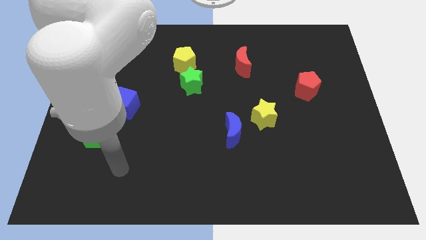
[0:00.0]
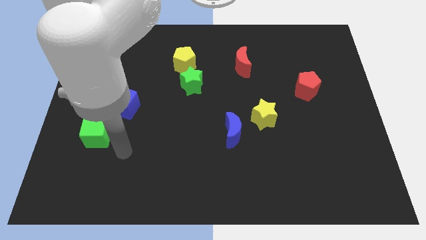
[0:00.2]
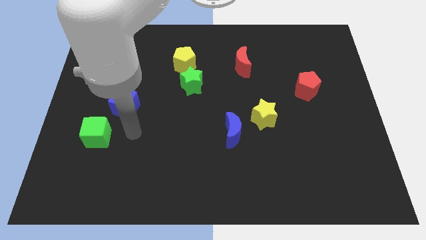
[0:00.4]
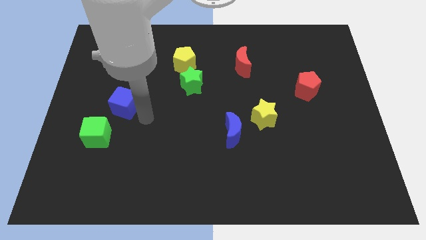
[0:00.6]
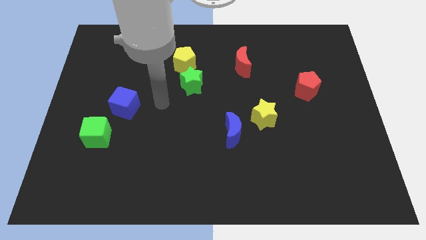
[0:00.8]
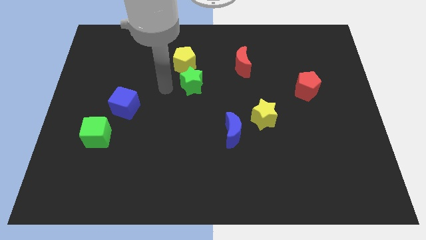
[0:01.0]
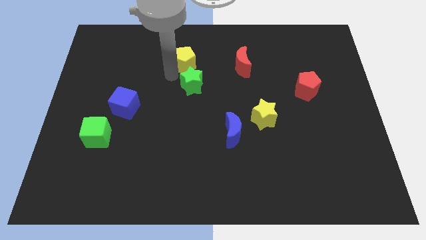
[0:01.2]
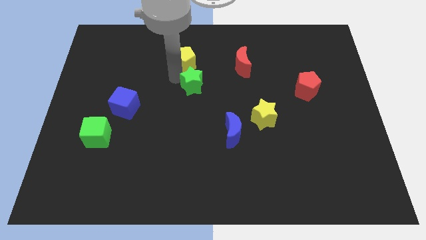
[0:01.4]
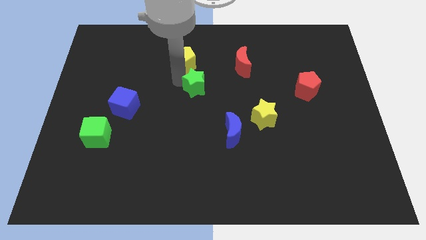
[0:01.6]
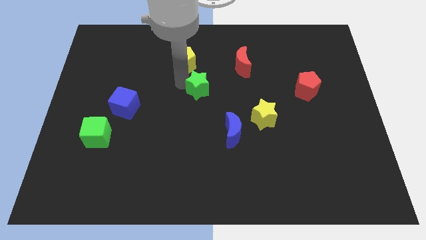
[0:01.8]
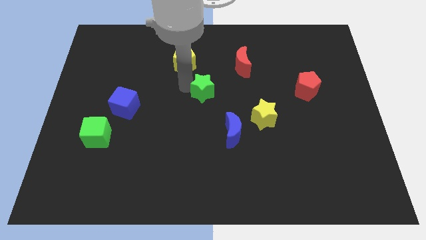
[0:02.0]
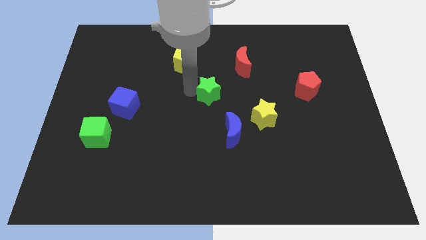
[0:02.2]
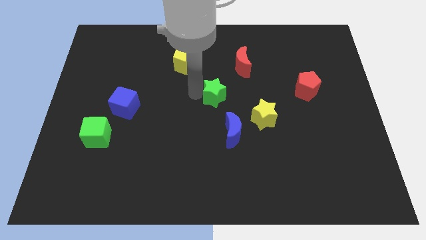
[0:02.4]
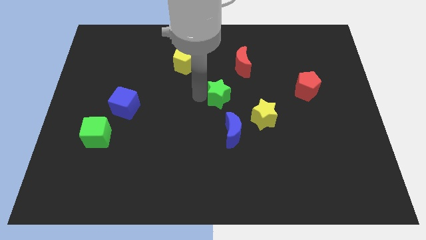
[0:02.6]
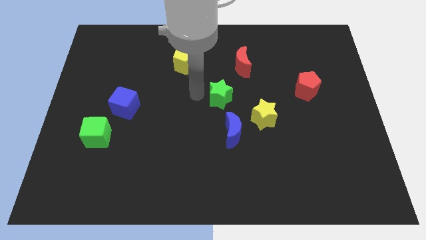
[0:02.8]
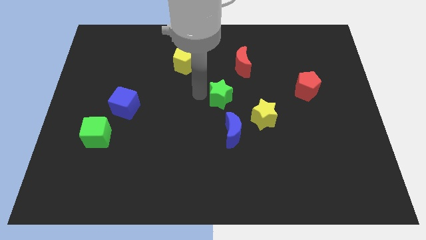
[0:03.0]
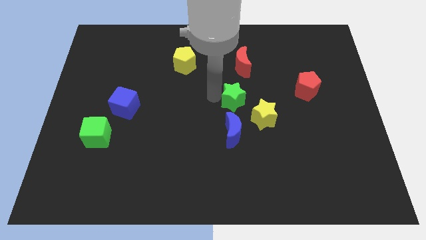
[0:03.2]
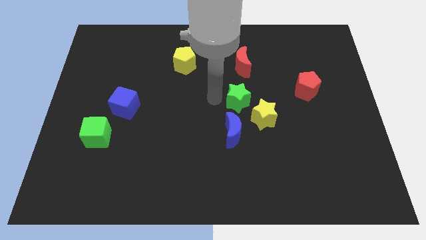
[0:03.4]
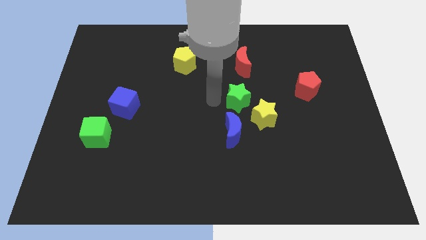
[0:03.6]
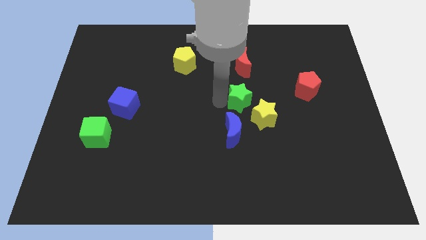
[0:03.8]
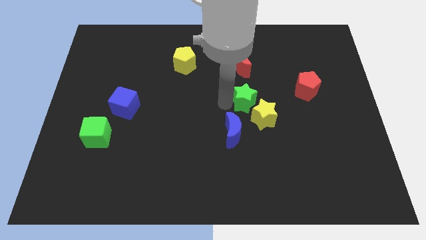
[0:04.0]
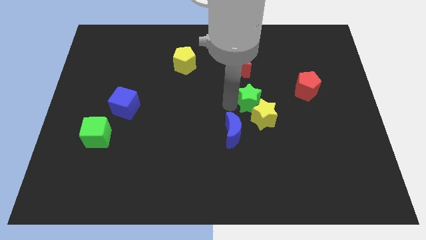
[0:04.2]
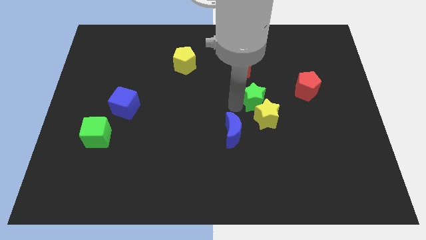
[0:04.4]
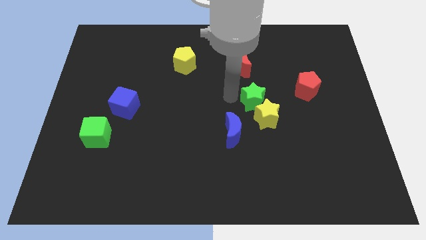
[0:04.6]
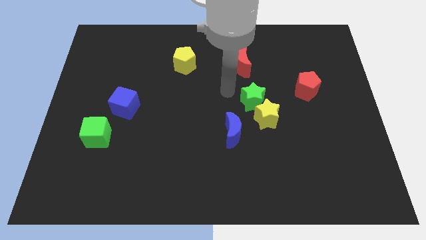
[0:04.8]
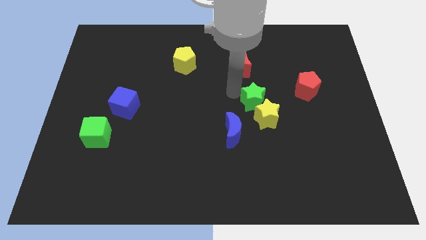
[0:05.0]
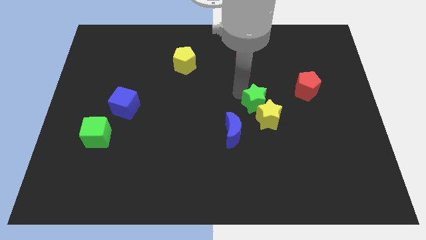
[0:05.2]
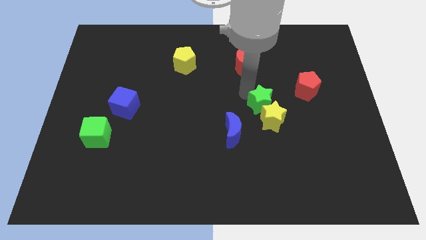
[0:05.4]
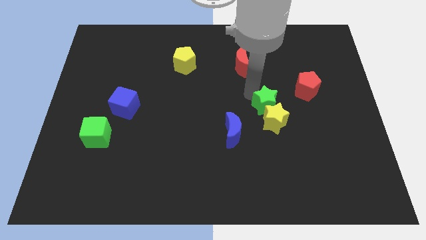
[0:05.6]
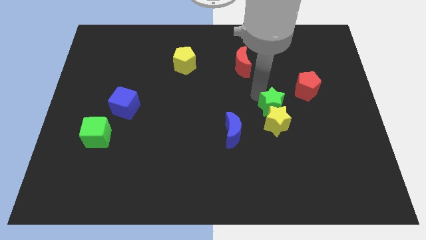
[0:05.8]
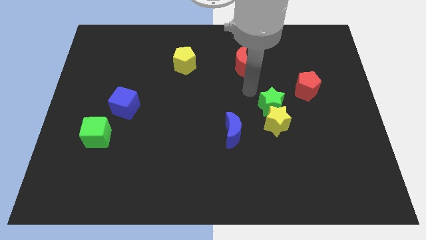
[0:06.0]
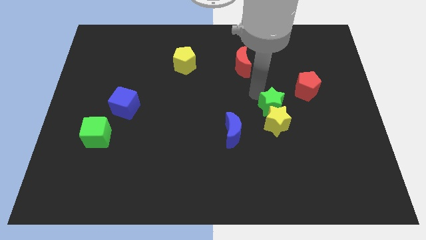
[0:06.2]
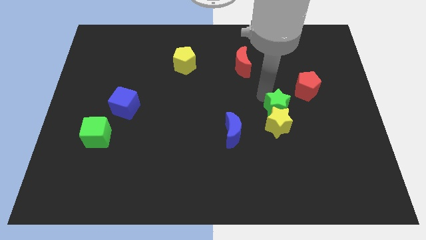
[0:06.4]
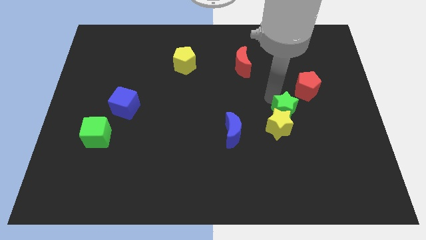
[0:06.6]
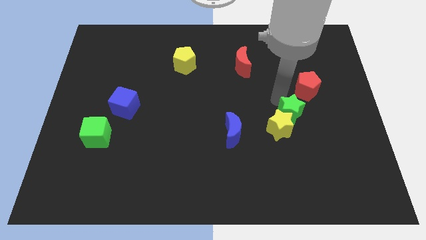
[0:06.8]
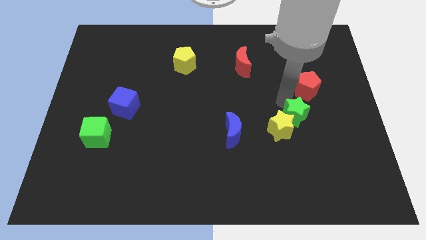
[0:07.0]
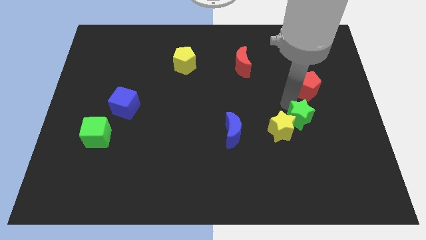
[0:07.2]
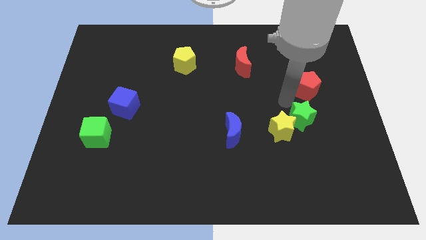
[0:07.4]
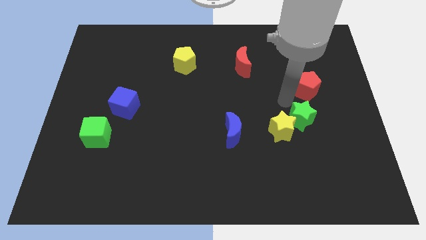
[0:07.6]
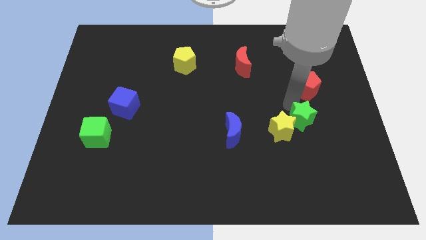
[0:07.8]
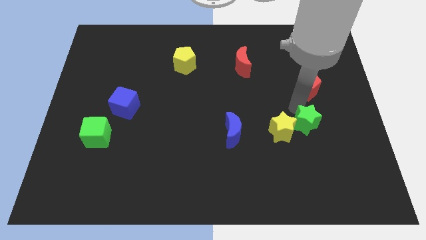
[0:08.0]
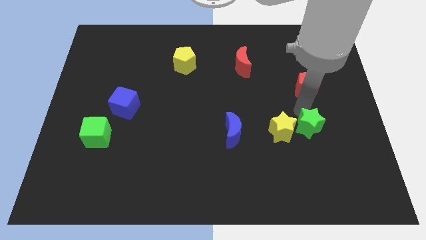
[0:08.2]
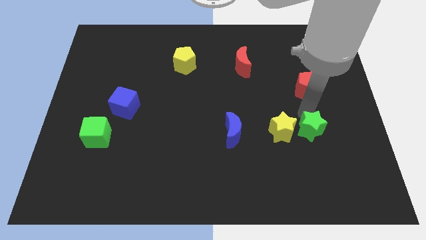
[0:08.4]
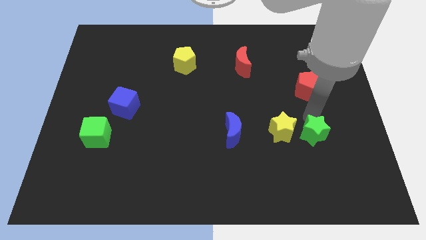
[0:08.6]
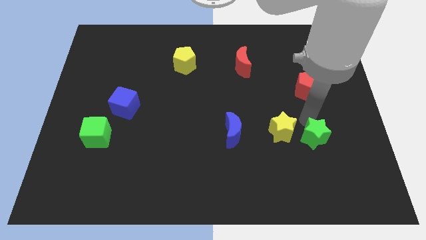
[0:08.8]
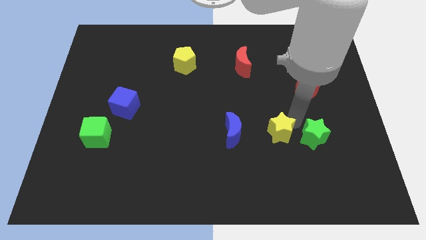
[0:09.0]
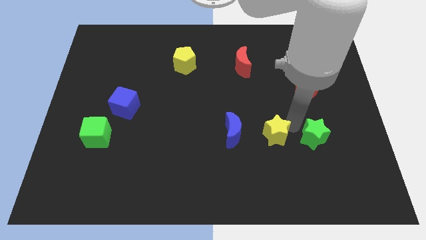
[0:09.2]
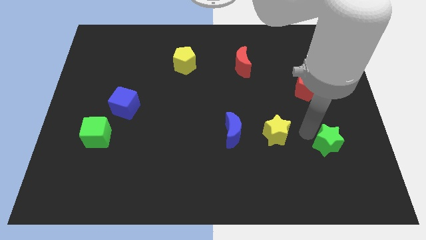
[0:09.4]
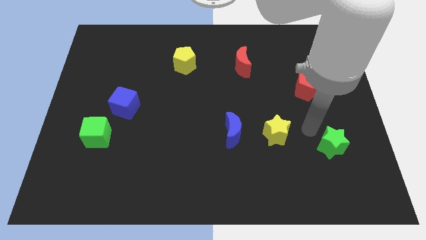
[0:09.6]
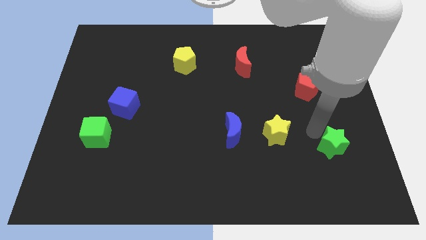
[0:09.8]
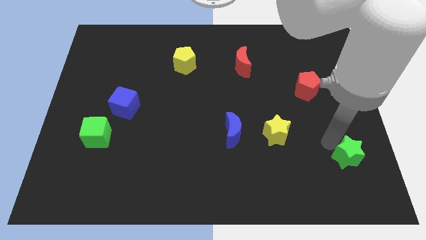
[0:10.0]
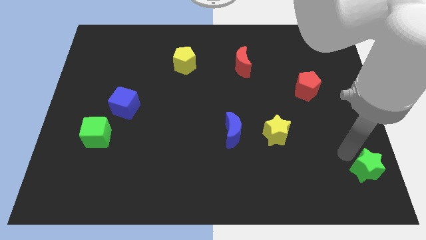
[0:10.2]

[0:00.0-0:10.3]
put the green star to the bottom right corner

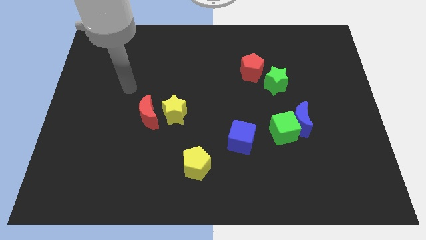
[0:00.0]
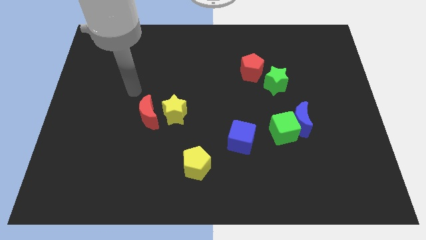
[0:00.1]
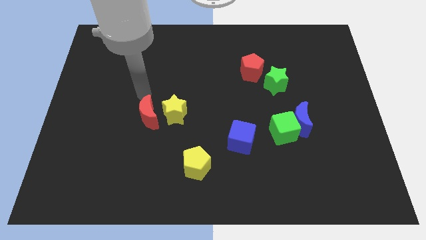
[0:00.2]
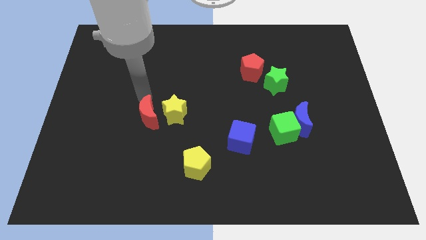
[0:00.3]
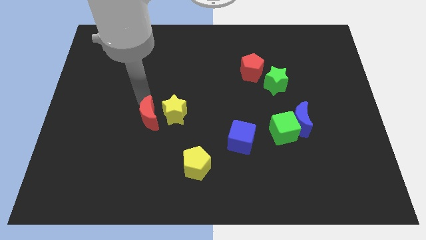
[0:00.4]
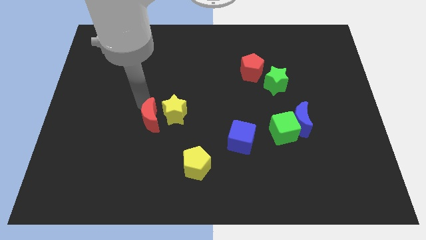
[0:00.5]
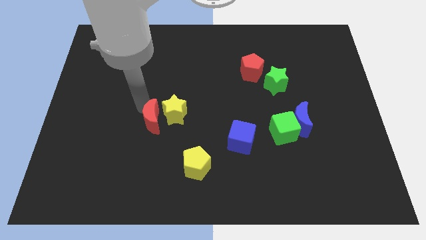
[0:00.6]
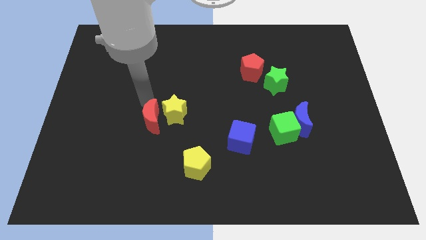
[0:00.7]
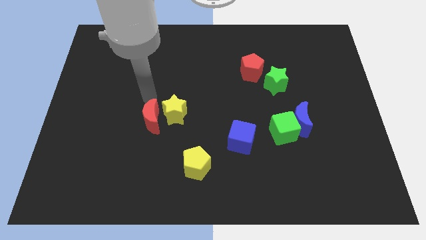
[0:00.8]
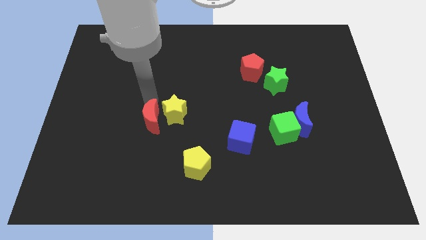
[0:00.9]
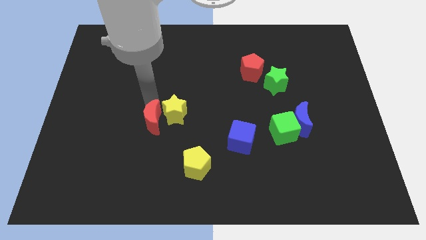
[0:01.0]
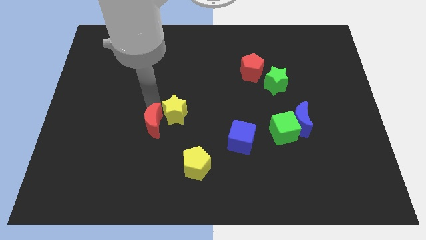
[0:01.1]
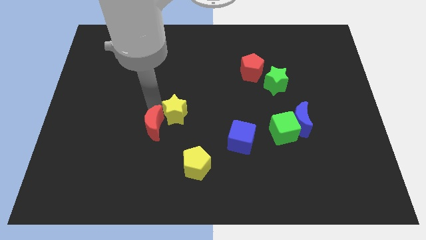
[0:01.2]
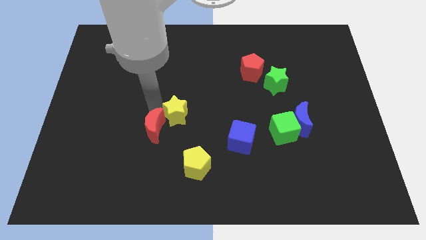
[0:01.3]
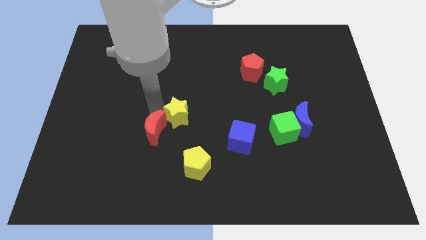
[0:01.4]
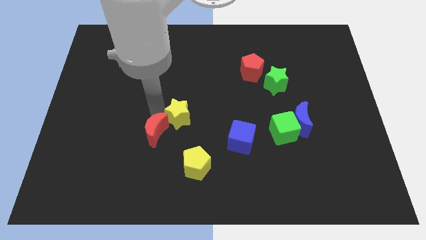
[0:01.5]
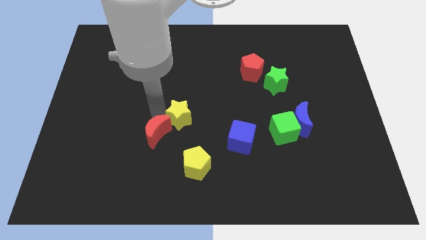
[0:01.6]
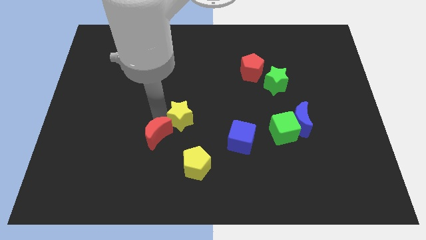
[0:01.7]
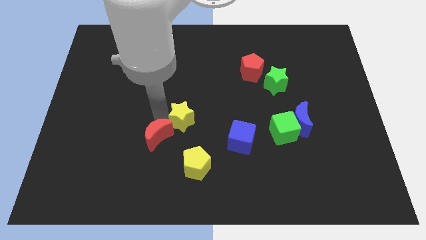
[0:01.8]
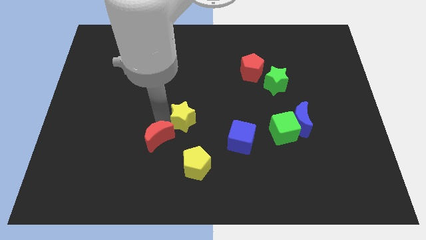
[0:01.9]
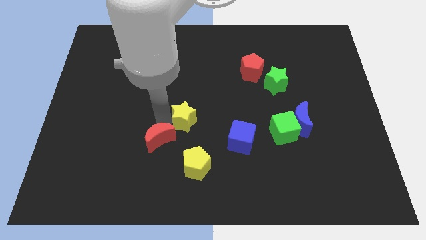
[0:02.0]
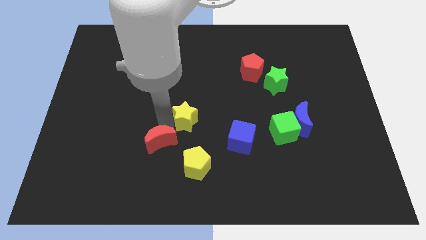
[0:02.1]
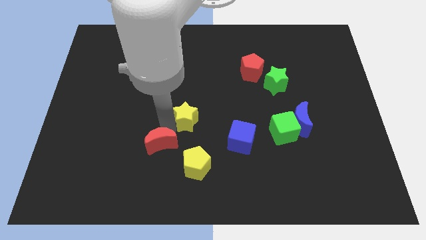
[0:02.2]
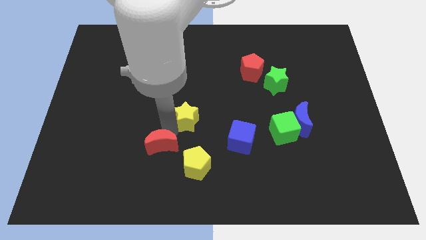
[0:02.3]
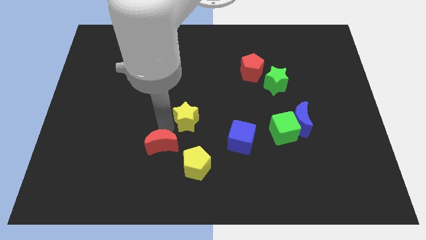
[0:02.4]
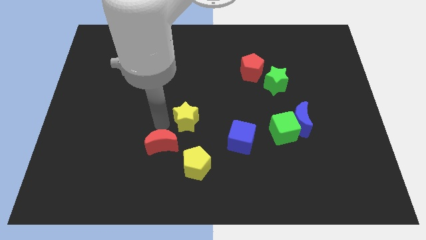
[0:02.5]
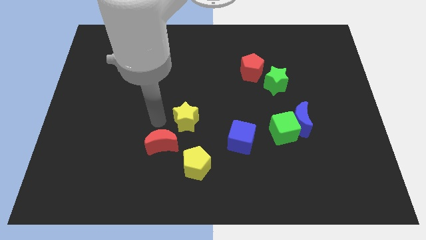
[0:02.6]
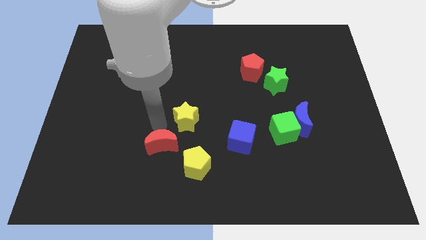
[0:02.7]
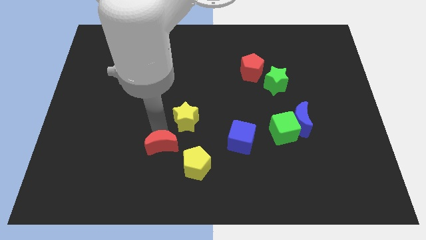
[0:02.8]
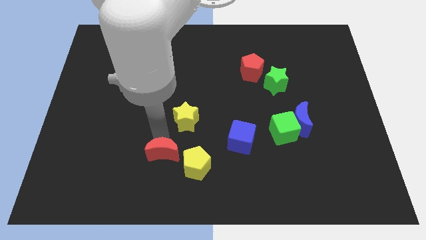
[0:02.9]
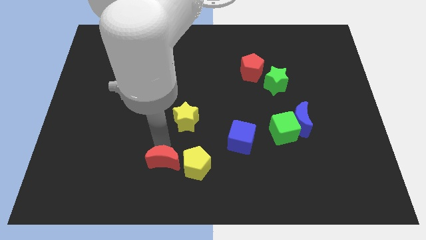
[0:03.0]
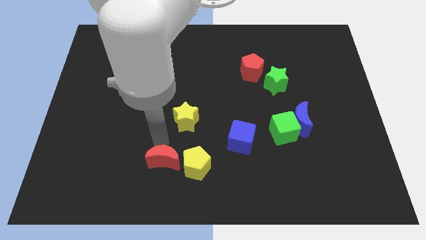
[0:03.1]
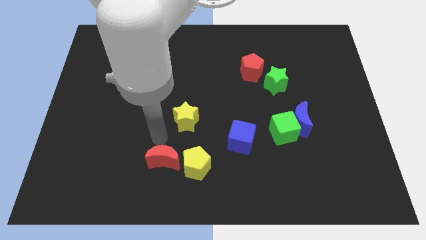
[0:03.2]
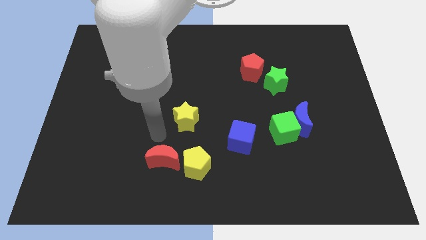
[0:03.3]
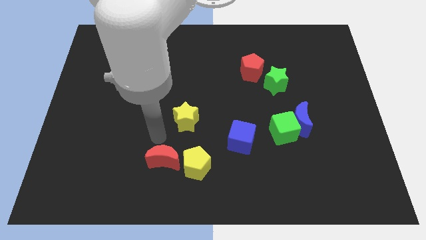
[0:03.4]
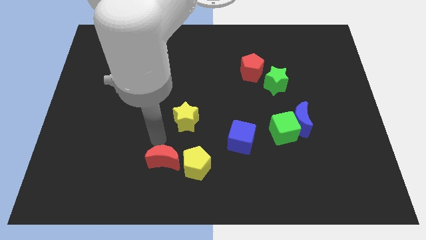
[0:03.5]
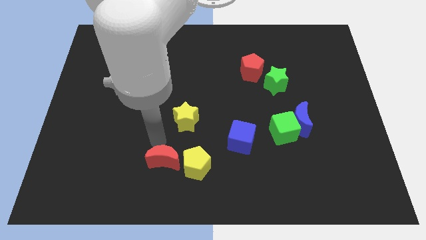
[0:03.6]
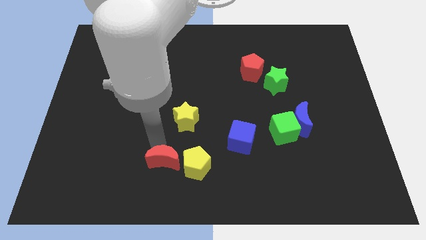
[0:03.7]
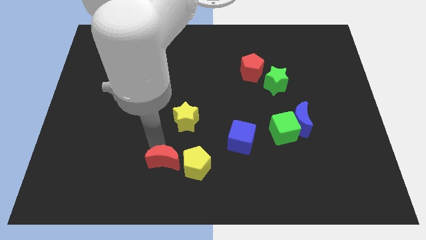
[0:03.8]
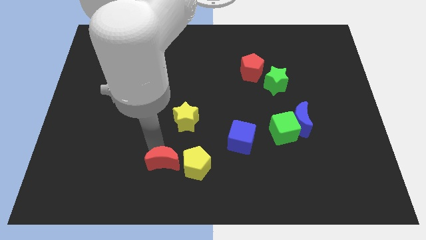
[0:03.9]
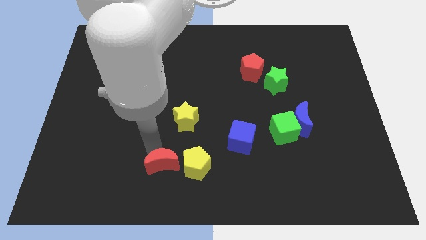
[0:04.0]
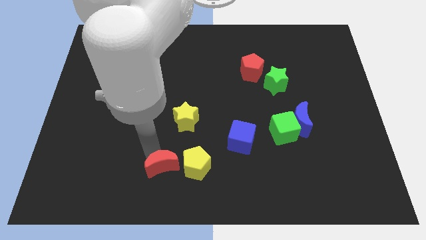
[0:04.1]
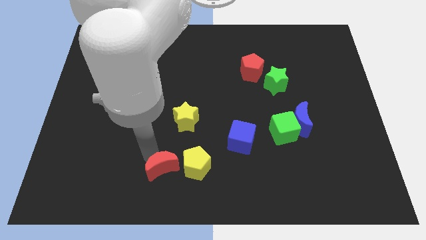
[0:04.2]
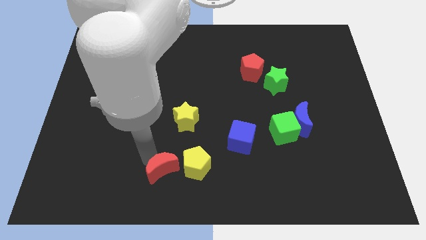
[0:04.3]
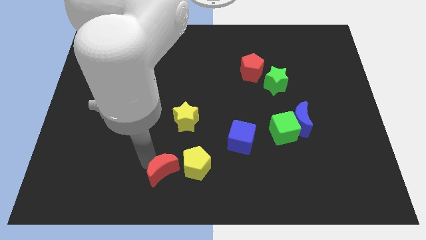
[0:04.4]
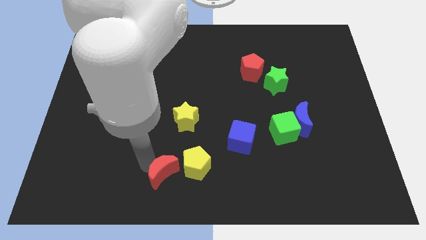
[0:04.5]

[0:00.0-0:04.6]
put the red moon to the bottom
